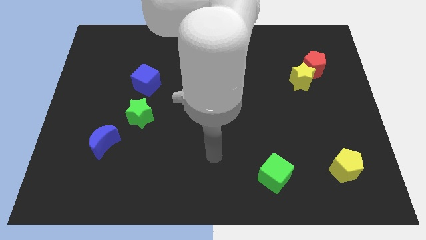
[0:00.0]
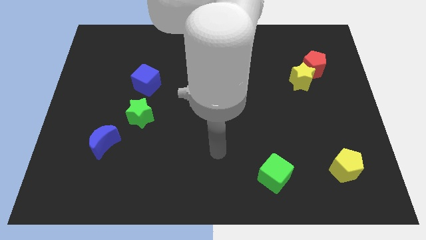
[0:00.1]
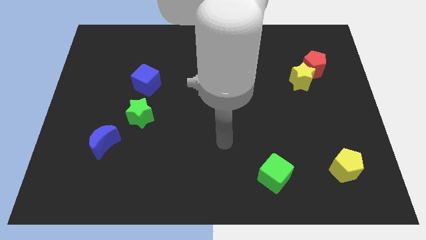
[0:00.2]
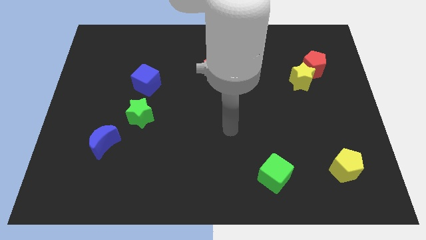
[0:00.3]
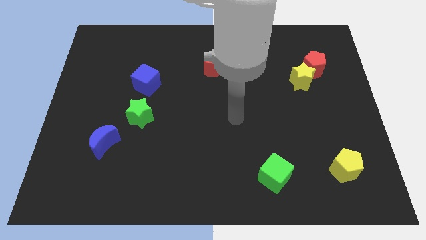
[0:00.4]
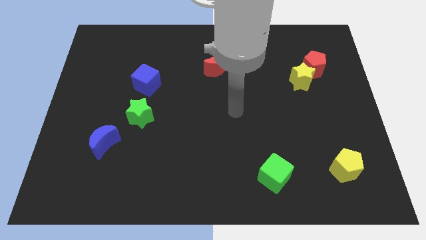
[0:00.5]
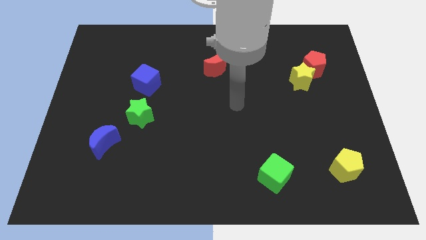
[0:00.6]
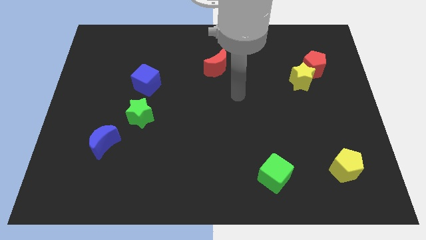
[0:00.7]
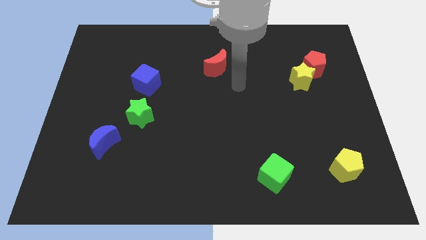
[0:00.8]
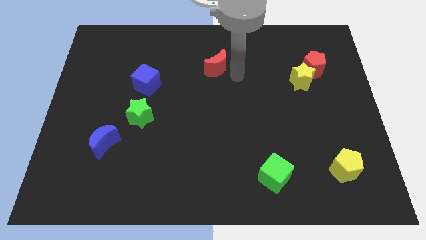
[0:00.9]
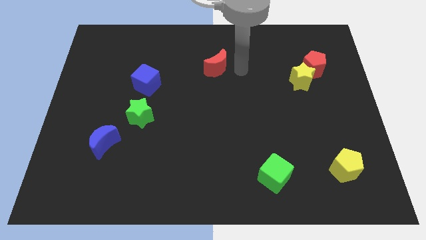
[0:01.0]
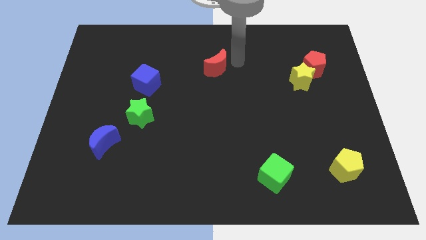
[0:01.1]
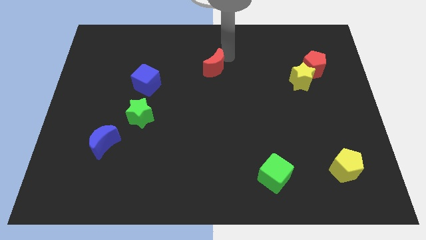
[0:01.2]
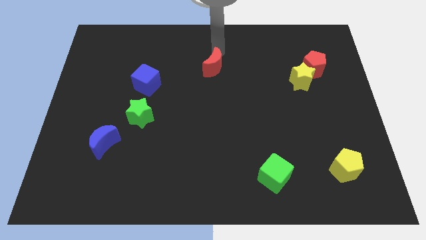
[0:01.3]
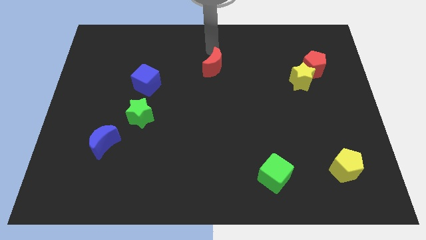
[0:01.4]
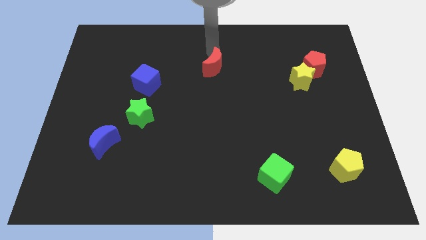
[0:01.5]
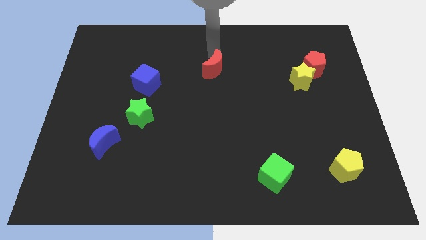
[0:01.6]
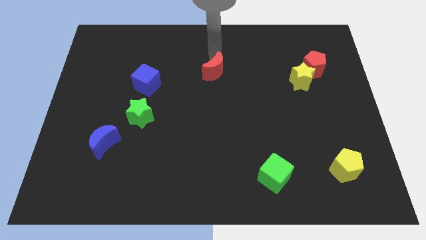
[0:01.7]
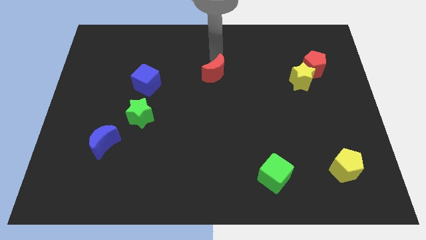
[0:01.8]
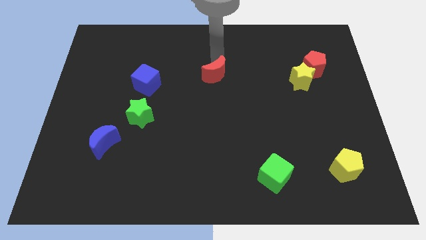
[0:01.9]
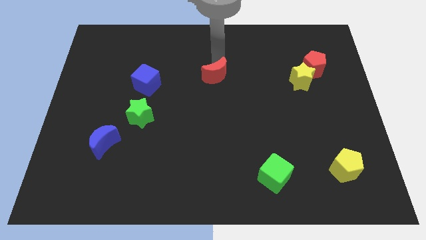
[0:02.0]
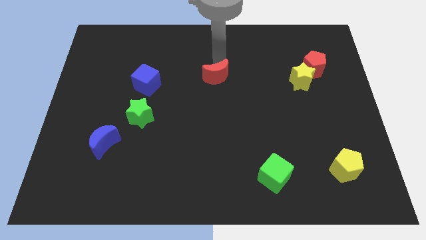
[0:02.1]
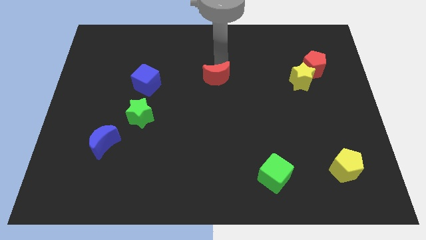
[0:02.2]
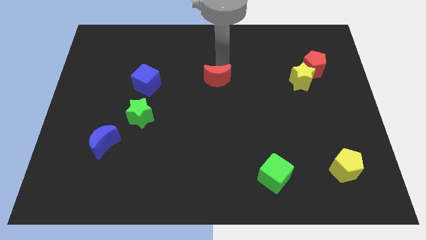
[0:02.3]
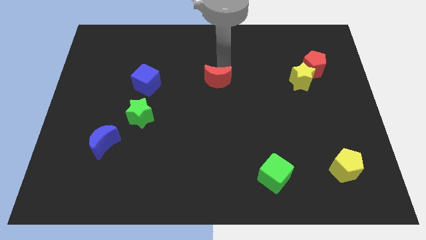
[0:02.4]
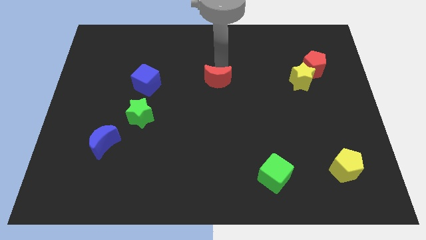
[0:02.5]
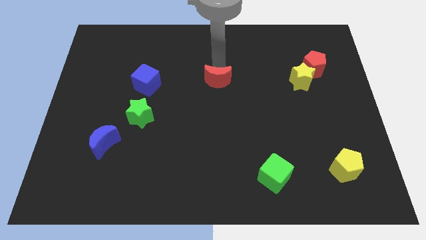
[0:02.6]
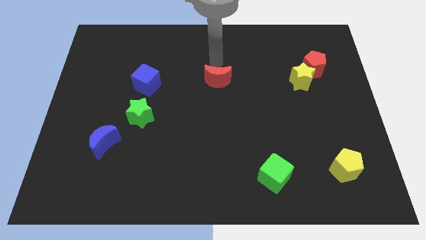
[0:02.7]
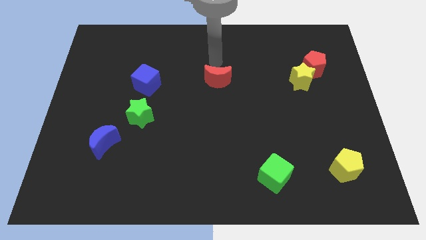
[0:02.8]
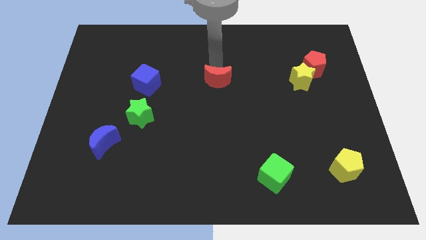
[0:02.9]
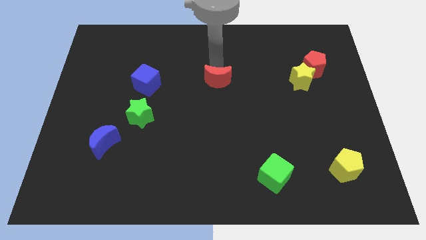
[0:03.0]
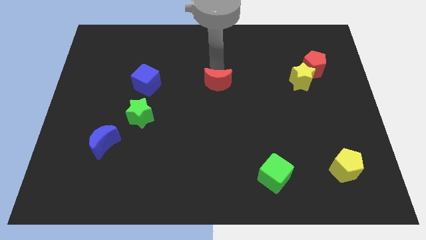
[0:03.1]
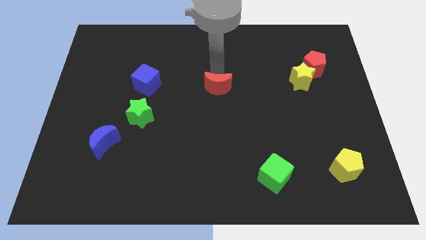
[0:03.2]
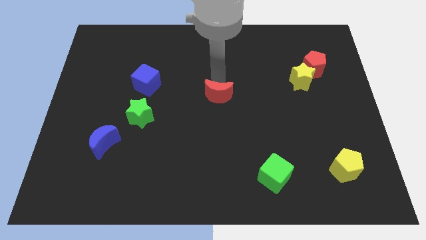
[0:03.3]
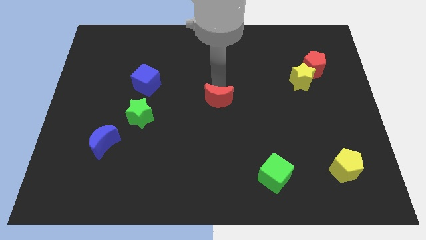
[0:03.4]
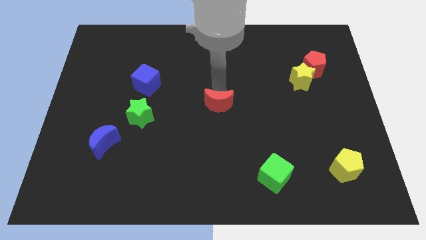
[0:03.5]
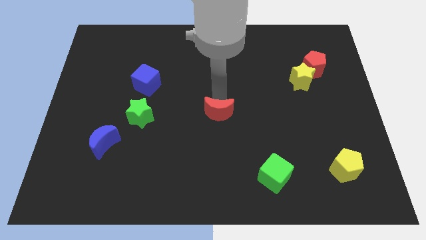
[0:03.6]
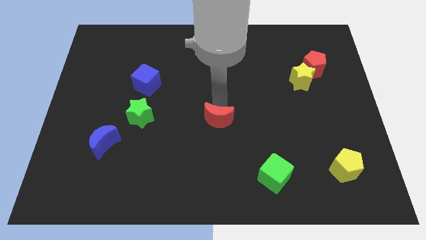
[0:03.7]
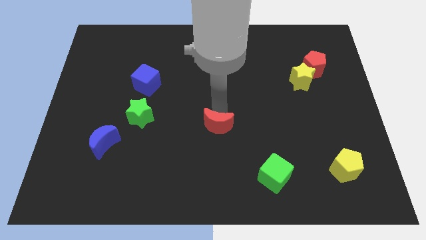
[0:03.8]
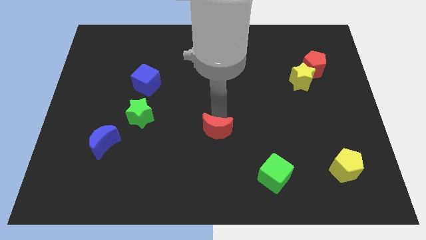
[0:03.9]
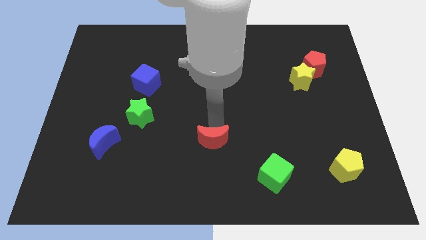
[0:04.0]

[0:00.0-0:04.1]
move the red moon down

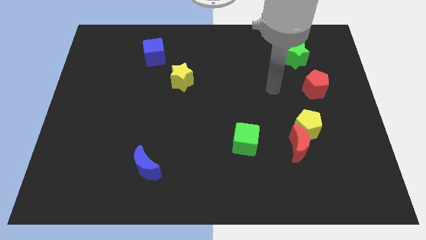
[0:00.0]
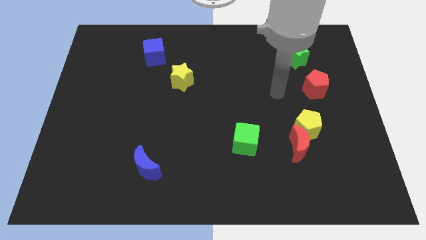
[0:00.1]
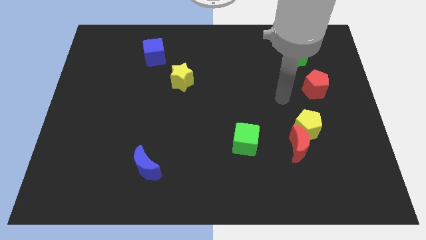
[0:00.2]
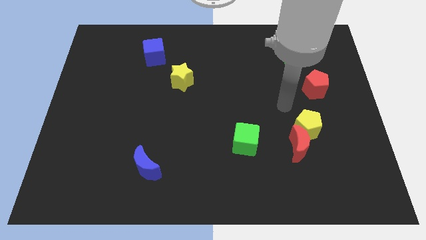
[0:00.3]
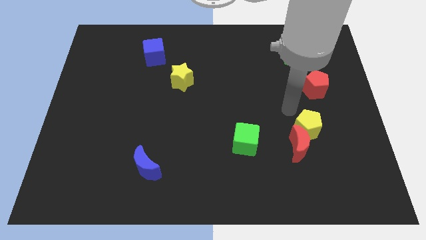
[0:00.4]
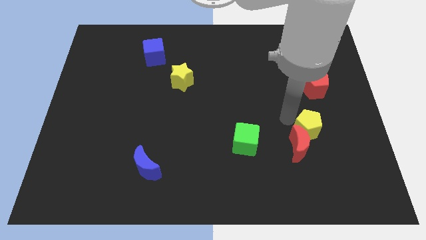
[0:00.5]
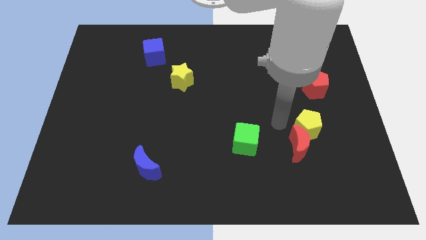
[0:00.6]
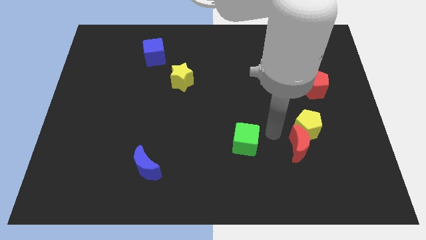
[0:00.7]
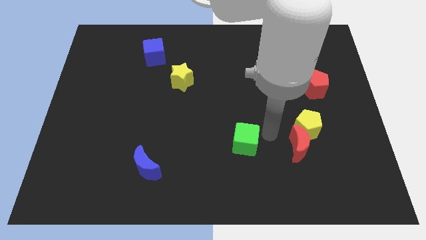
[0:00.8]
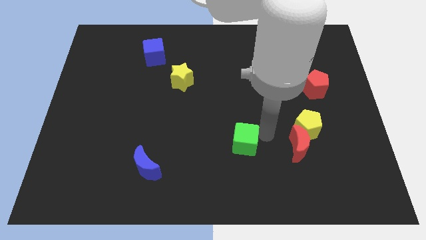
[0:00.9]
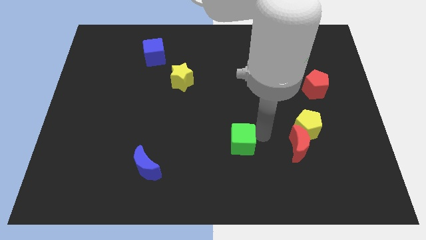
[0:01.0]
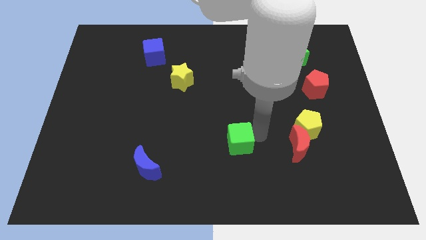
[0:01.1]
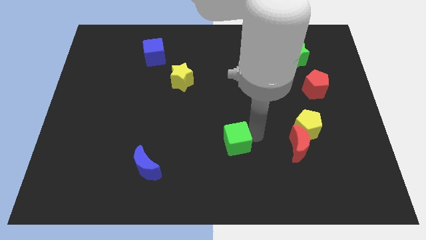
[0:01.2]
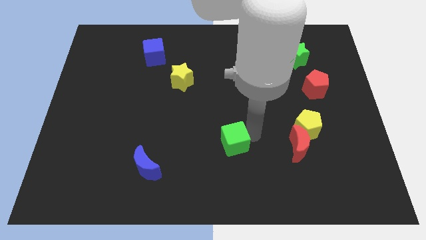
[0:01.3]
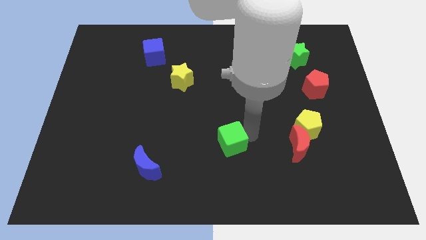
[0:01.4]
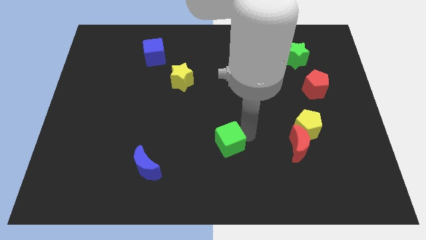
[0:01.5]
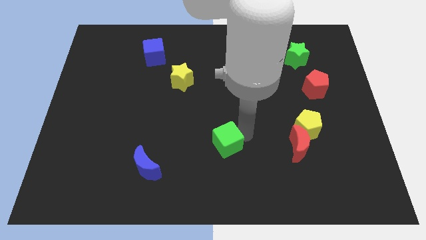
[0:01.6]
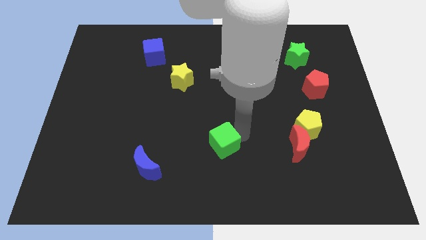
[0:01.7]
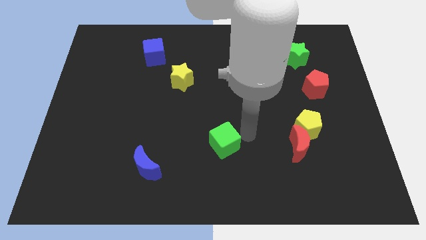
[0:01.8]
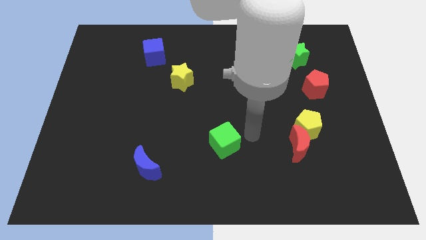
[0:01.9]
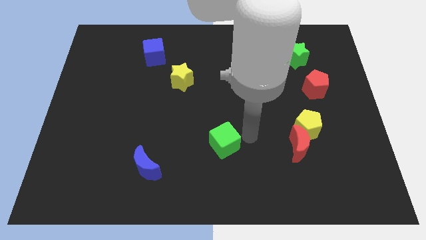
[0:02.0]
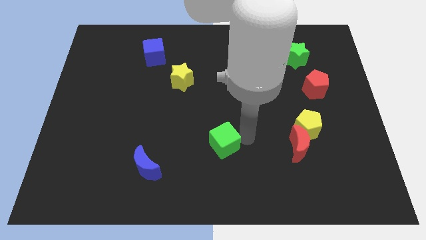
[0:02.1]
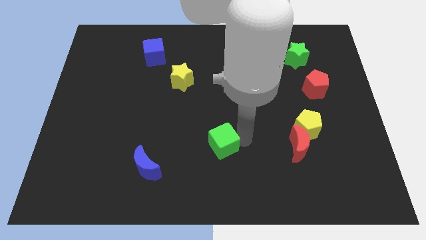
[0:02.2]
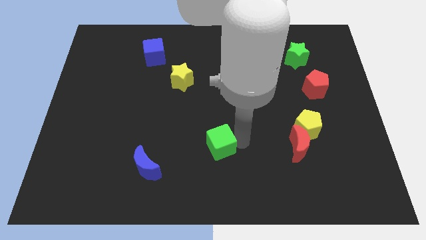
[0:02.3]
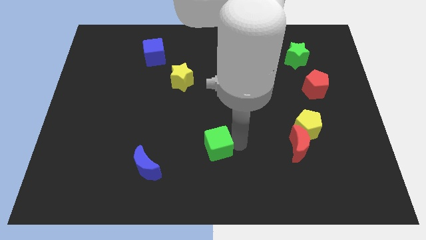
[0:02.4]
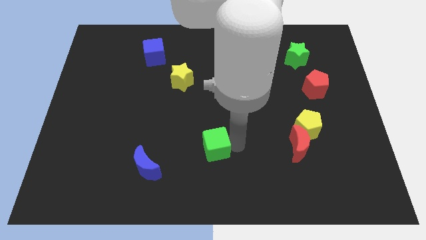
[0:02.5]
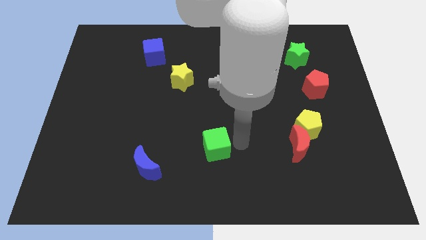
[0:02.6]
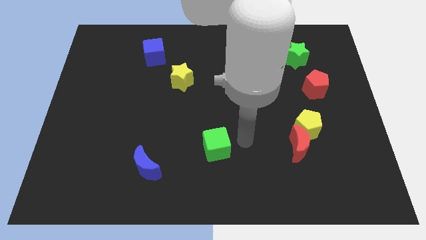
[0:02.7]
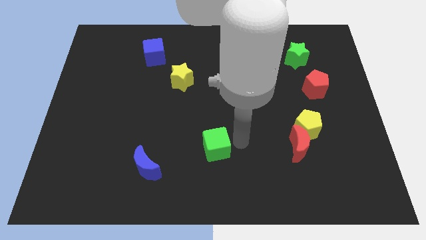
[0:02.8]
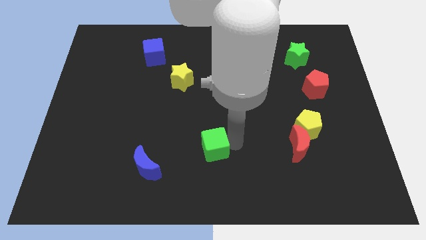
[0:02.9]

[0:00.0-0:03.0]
slightly move the green cube left

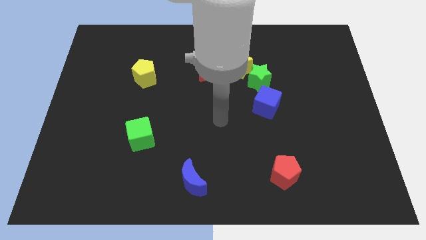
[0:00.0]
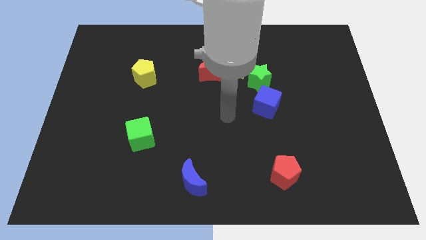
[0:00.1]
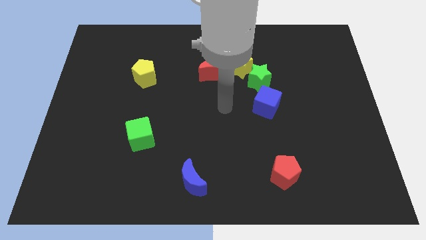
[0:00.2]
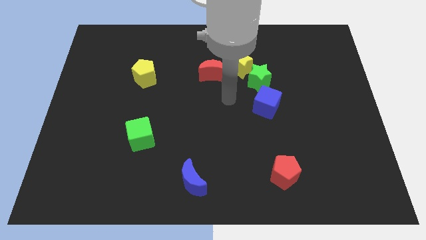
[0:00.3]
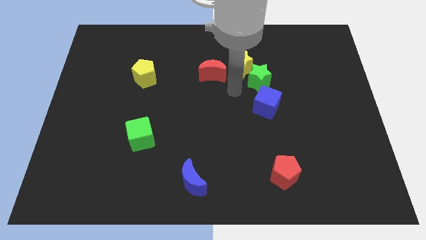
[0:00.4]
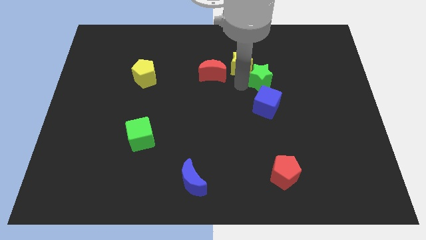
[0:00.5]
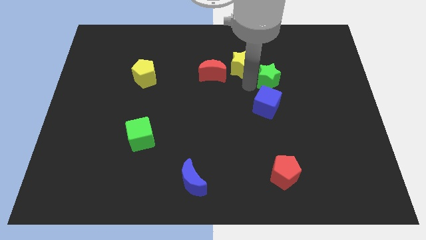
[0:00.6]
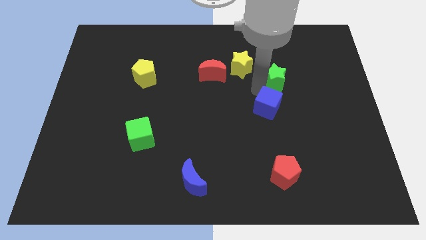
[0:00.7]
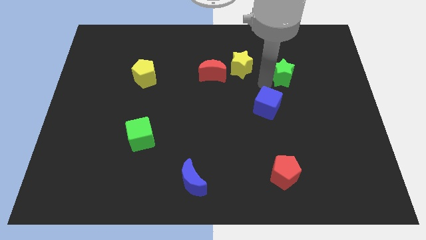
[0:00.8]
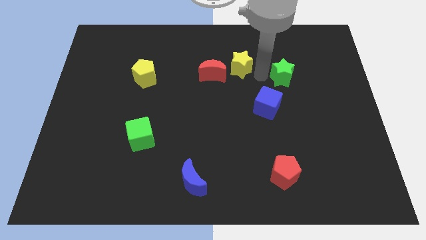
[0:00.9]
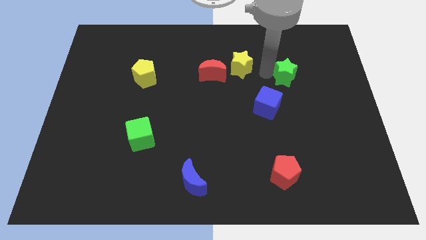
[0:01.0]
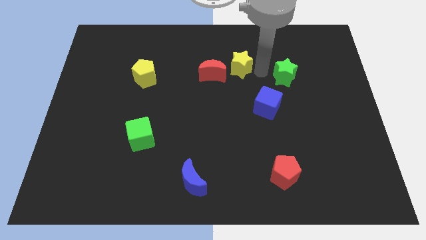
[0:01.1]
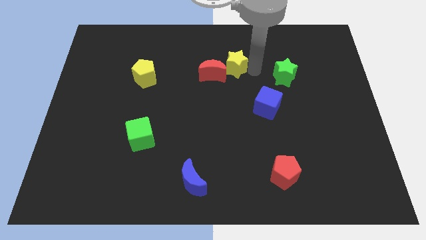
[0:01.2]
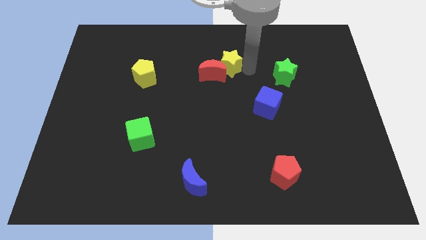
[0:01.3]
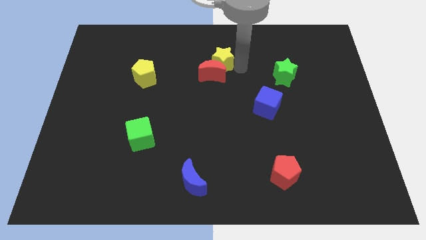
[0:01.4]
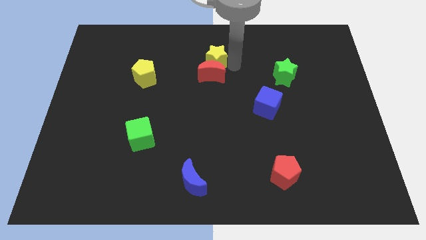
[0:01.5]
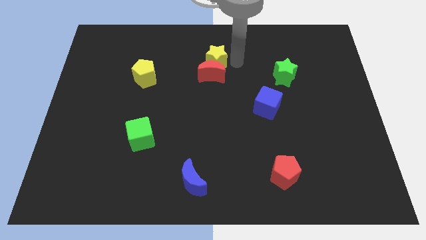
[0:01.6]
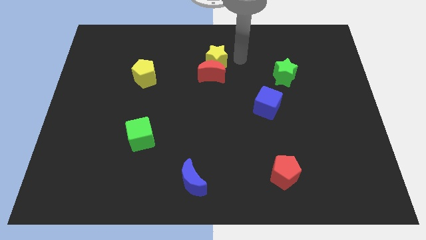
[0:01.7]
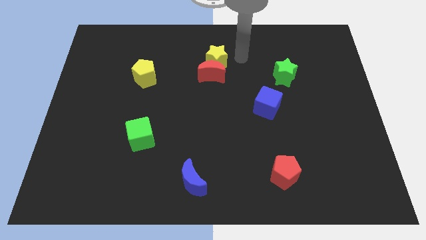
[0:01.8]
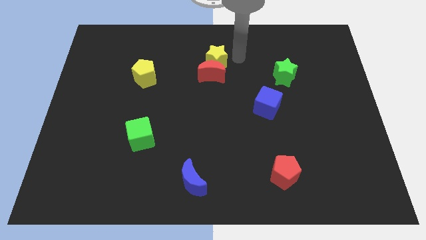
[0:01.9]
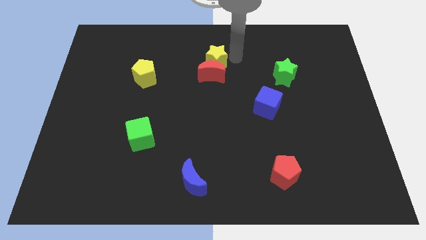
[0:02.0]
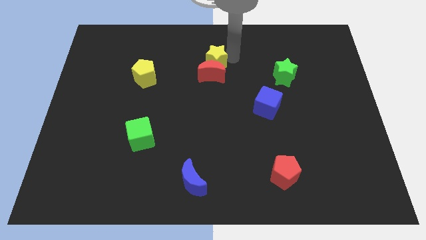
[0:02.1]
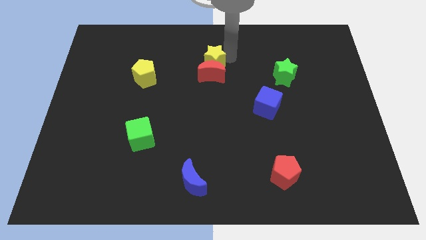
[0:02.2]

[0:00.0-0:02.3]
move the yellow star a little bit left
